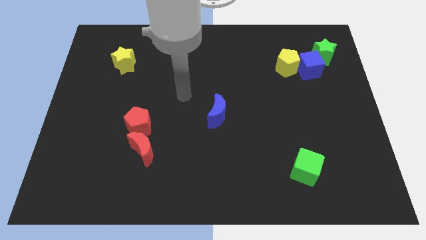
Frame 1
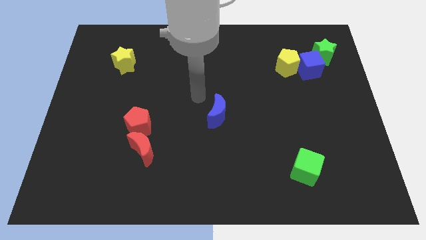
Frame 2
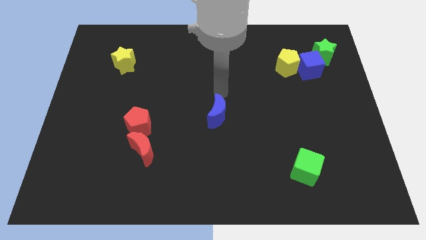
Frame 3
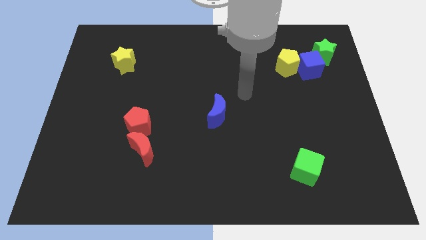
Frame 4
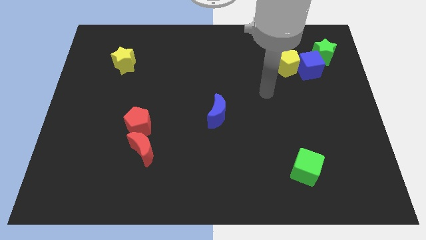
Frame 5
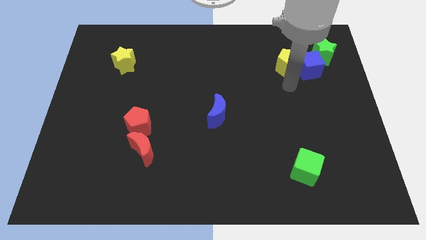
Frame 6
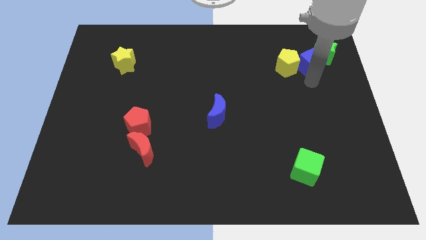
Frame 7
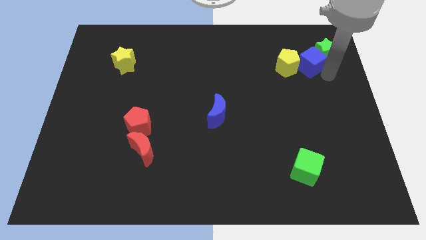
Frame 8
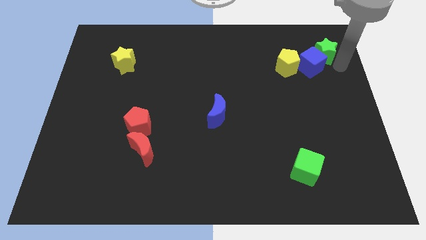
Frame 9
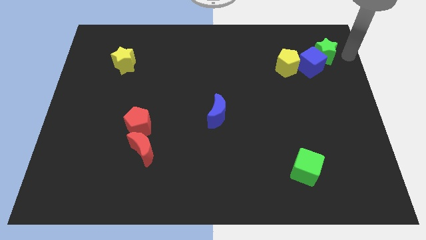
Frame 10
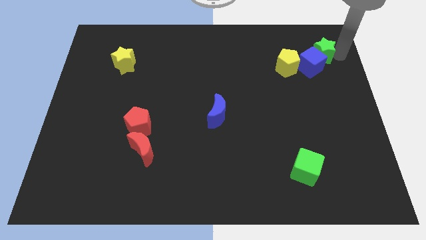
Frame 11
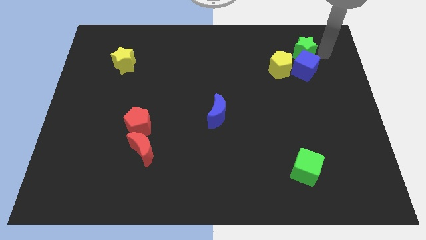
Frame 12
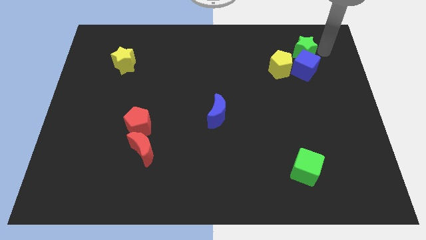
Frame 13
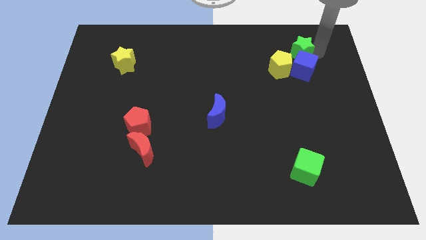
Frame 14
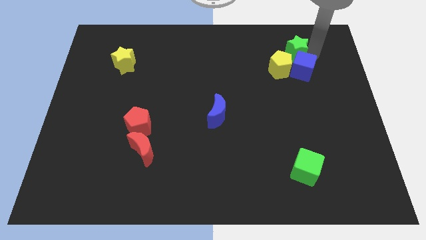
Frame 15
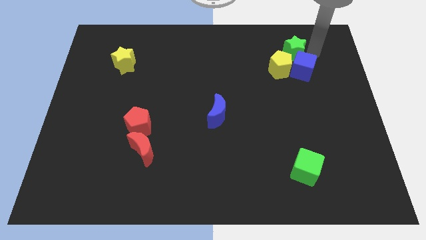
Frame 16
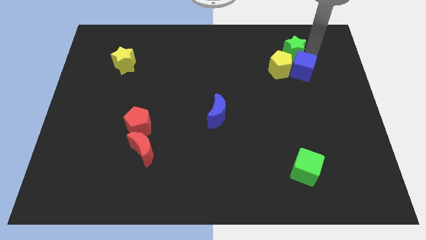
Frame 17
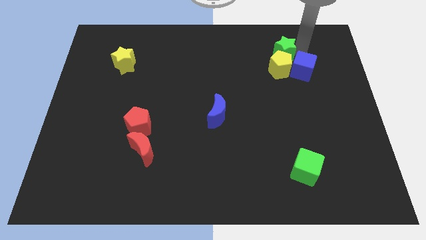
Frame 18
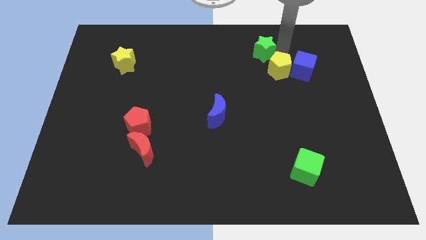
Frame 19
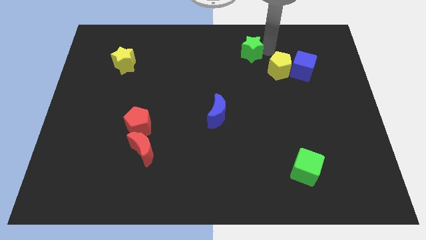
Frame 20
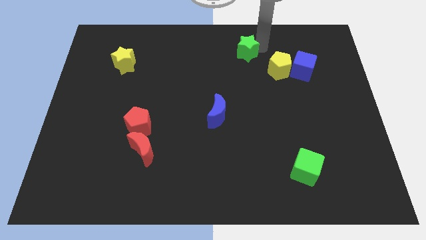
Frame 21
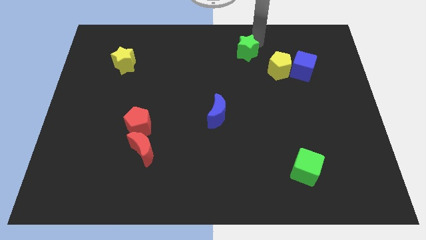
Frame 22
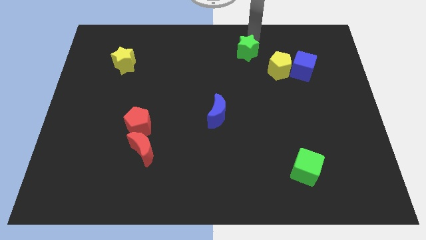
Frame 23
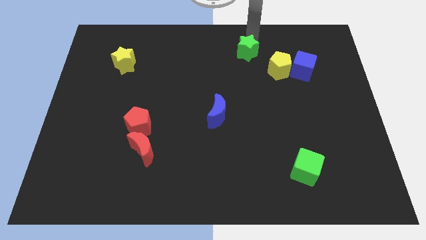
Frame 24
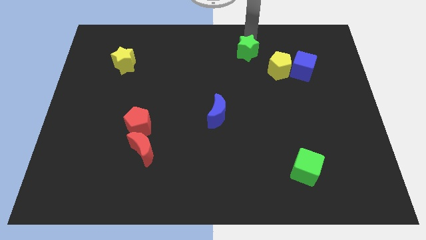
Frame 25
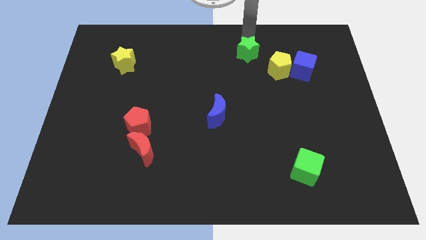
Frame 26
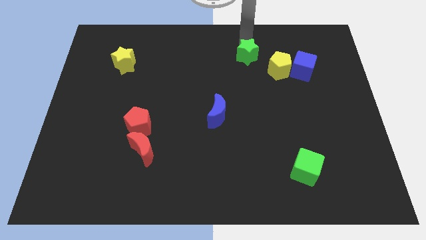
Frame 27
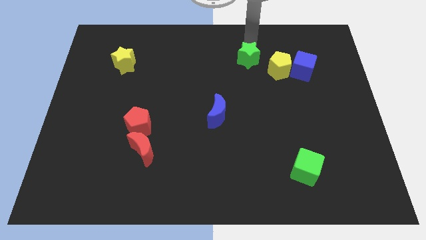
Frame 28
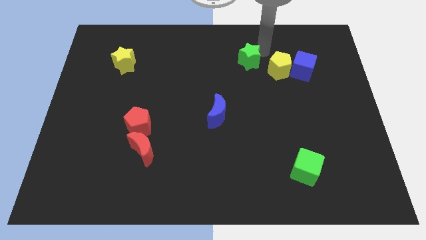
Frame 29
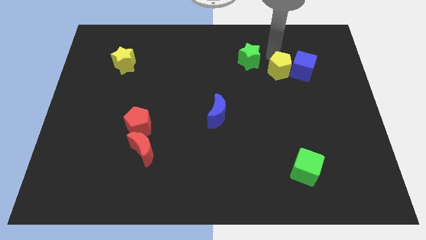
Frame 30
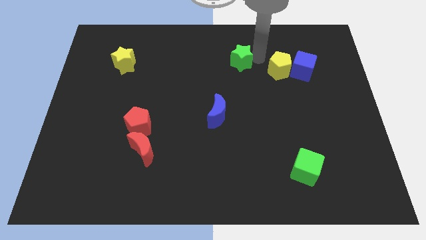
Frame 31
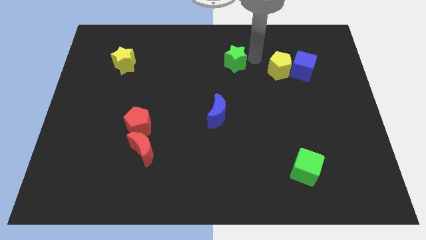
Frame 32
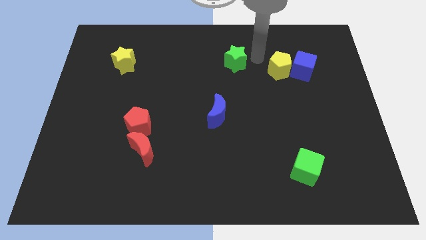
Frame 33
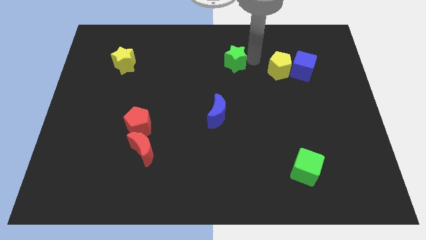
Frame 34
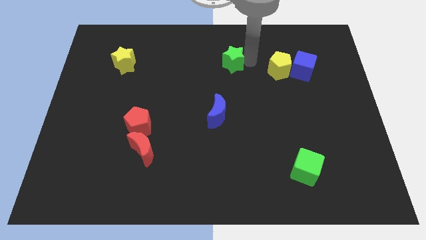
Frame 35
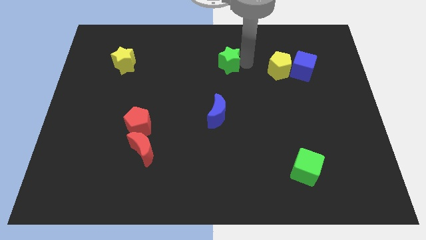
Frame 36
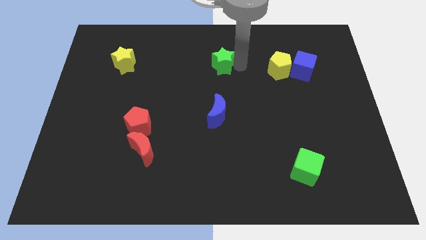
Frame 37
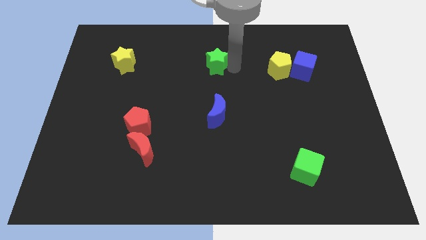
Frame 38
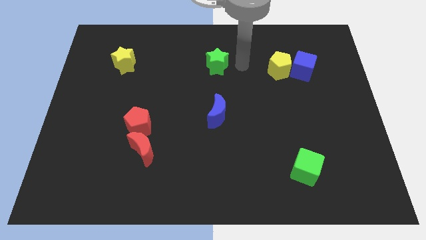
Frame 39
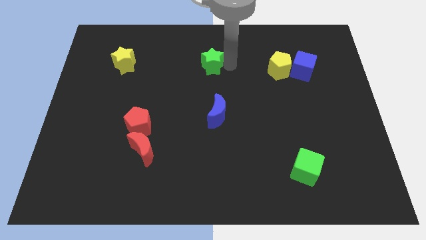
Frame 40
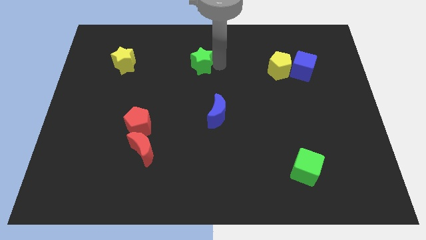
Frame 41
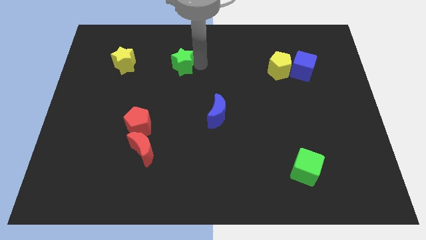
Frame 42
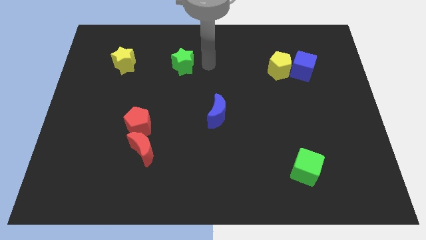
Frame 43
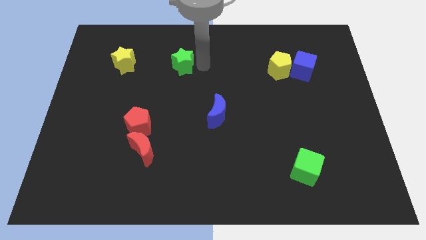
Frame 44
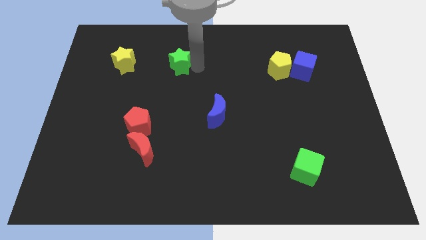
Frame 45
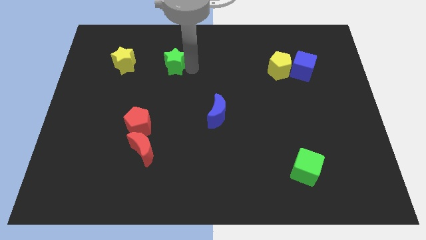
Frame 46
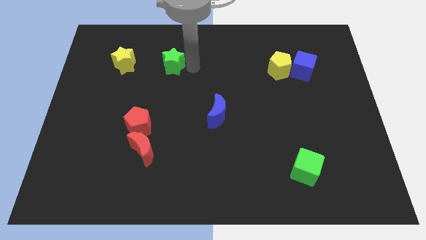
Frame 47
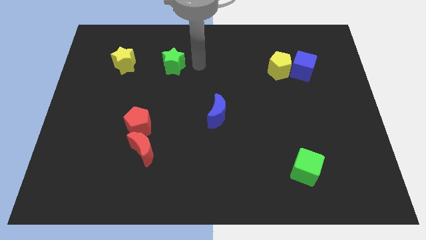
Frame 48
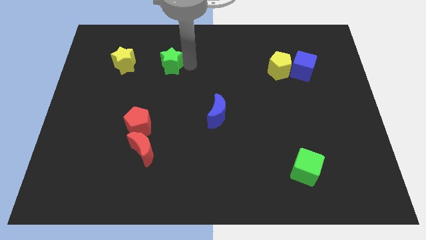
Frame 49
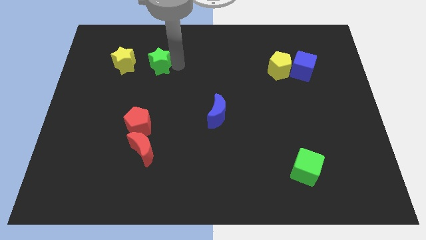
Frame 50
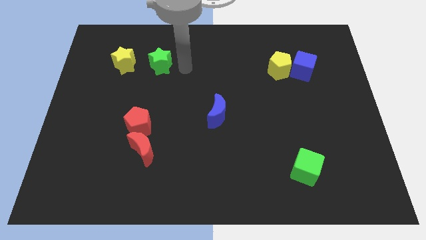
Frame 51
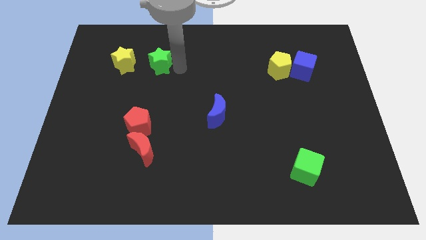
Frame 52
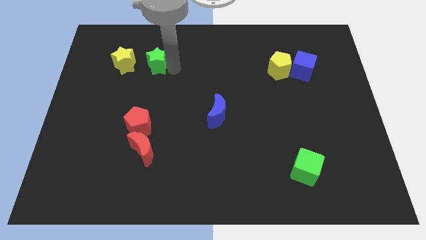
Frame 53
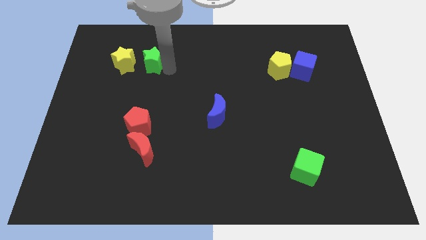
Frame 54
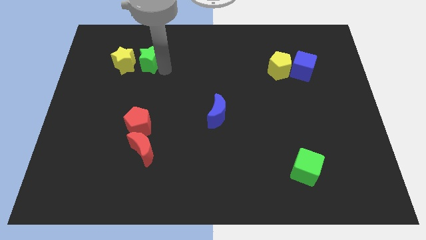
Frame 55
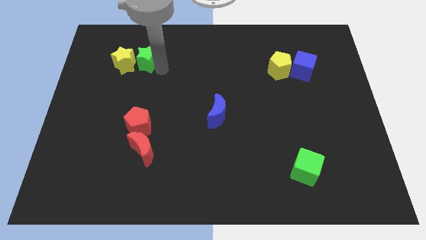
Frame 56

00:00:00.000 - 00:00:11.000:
move the green star to the yellow star

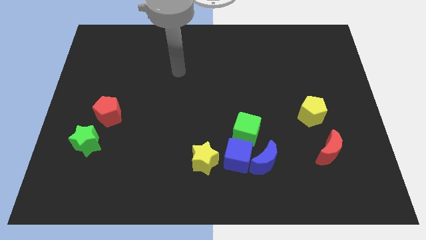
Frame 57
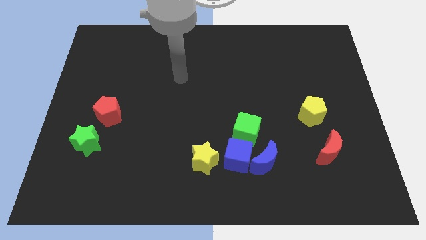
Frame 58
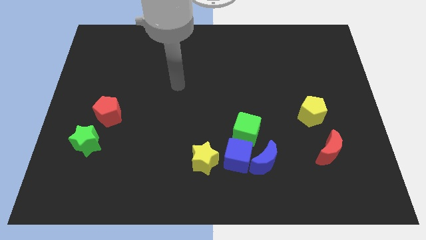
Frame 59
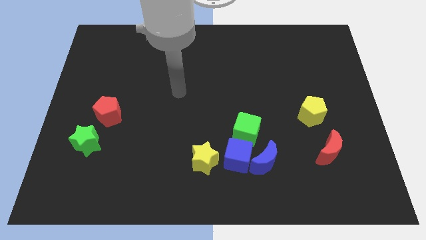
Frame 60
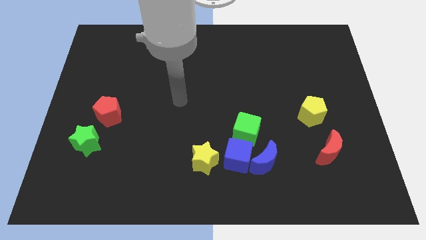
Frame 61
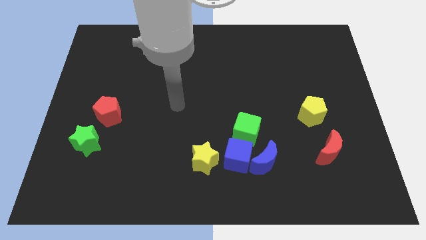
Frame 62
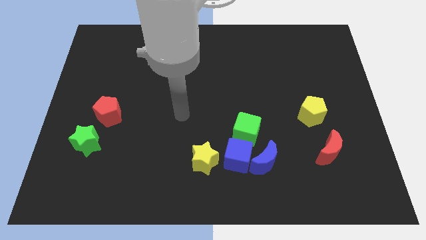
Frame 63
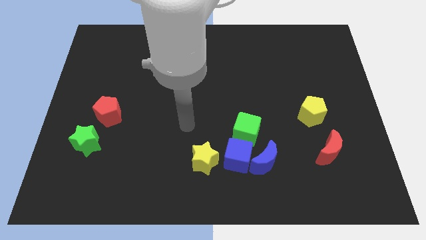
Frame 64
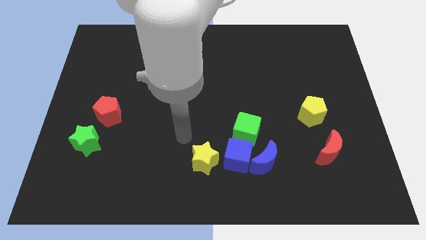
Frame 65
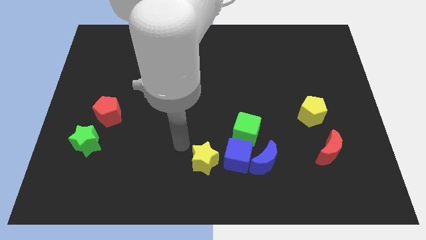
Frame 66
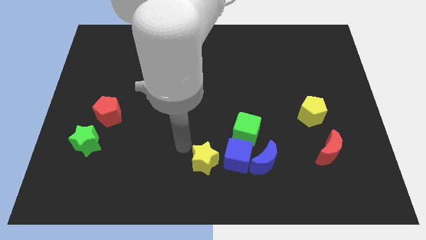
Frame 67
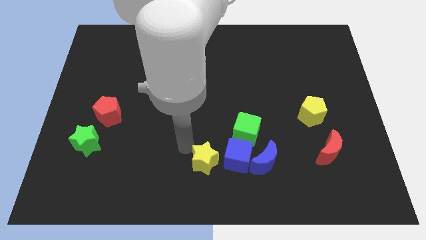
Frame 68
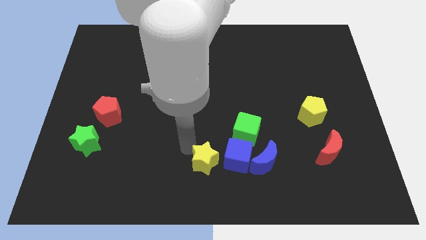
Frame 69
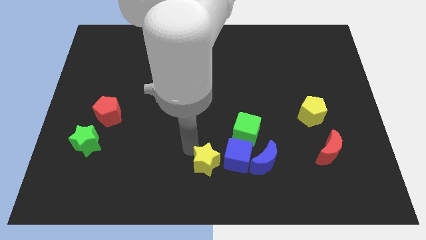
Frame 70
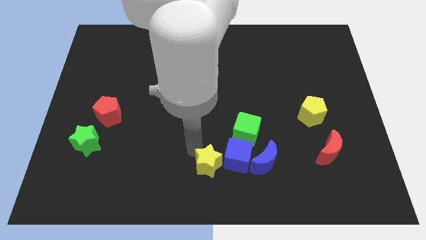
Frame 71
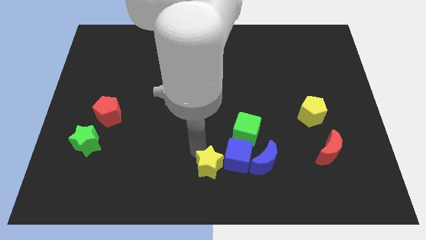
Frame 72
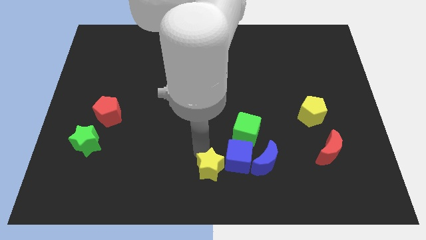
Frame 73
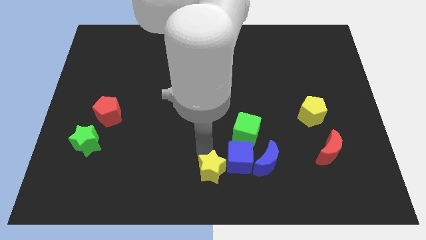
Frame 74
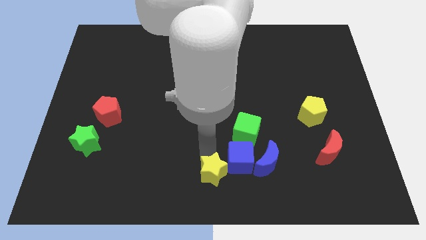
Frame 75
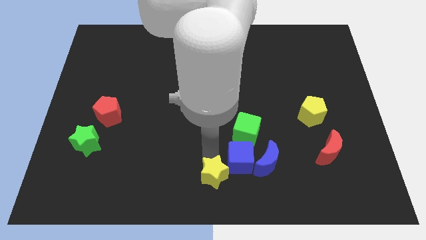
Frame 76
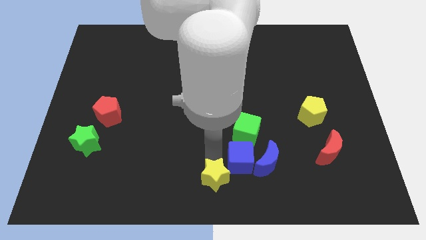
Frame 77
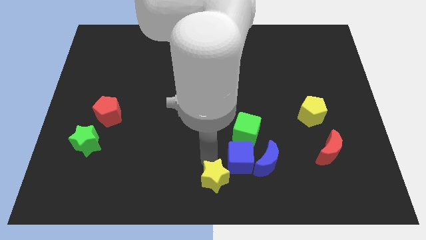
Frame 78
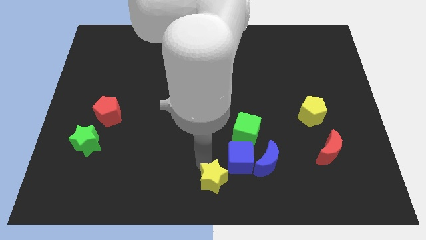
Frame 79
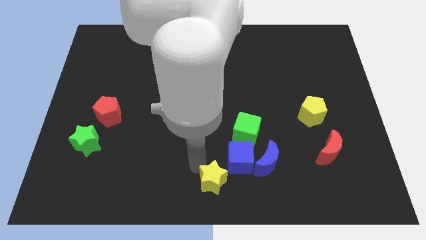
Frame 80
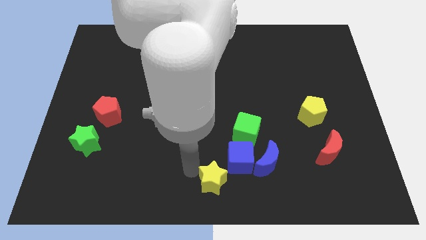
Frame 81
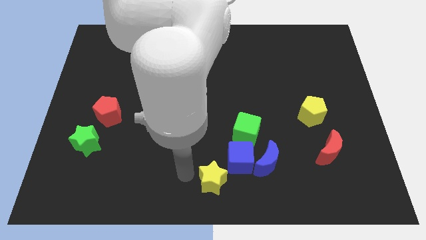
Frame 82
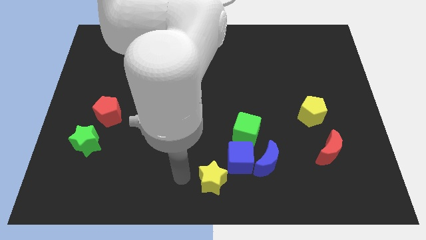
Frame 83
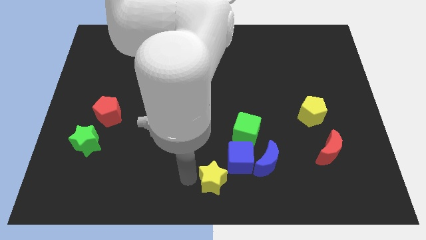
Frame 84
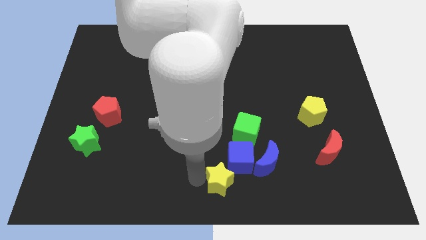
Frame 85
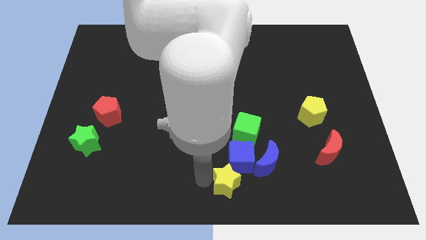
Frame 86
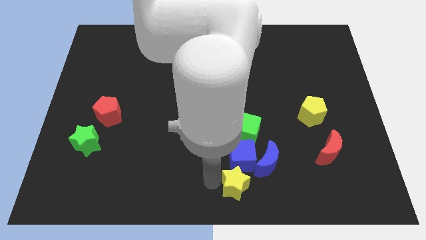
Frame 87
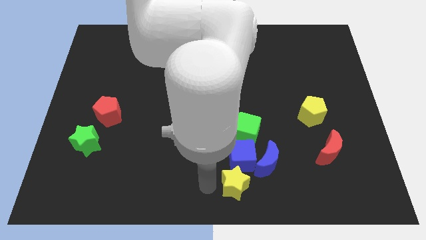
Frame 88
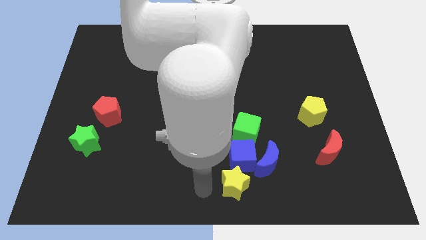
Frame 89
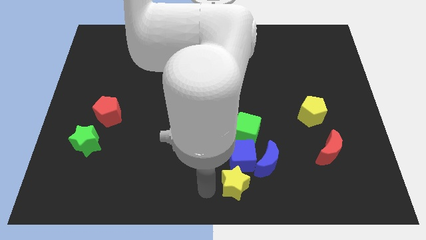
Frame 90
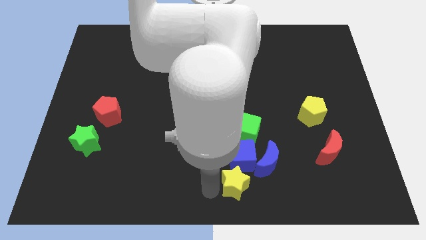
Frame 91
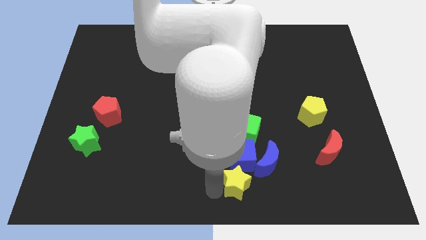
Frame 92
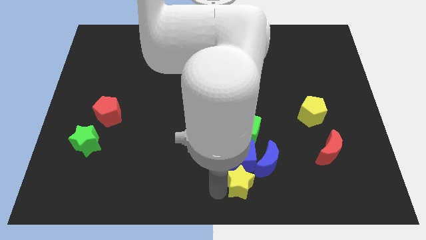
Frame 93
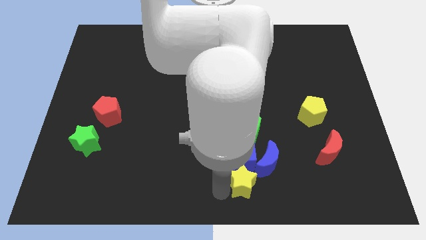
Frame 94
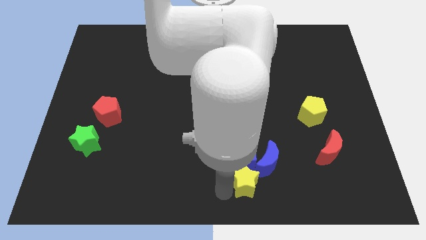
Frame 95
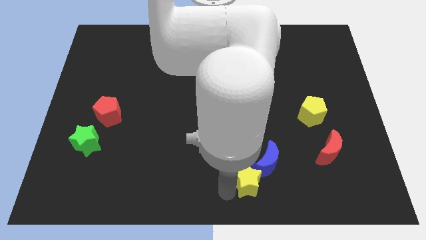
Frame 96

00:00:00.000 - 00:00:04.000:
slide the yellow star to the blue moon
